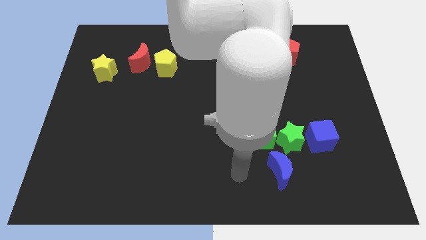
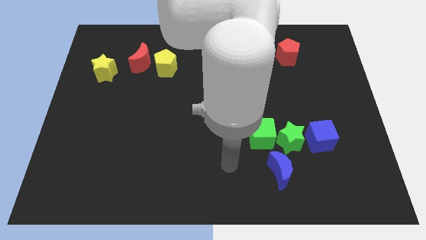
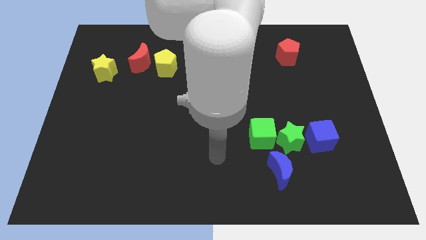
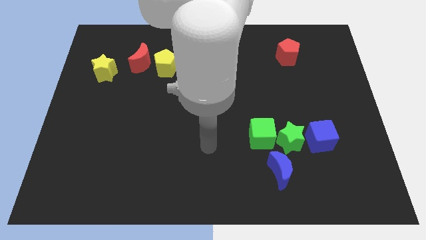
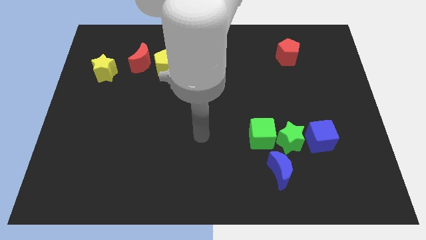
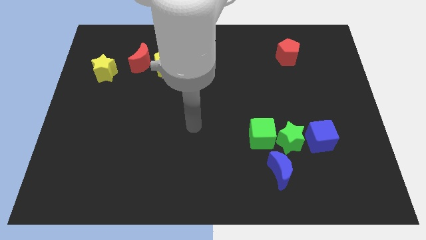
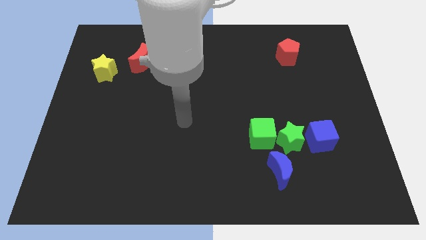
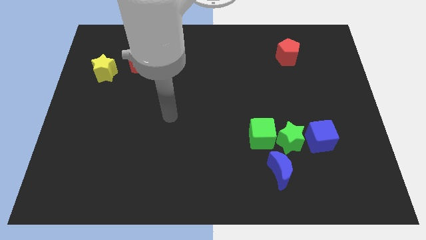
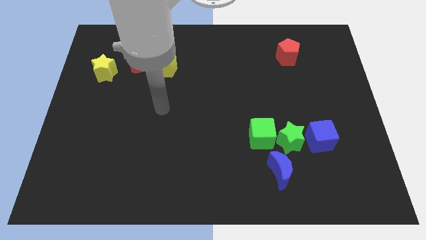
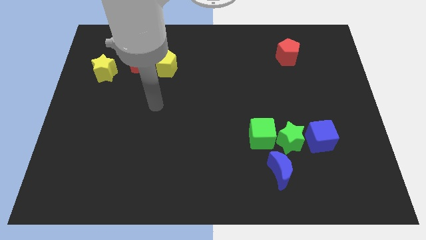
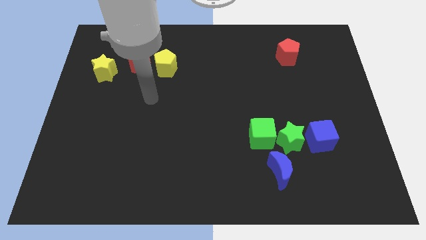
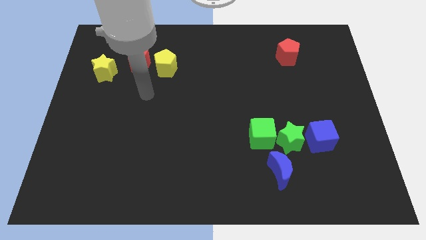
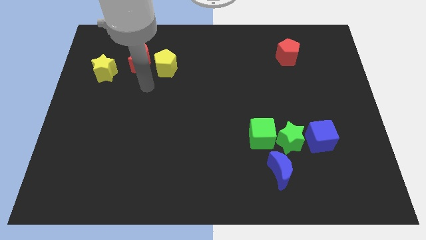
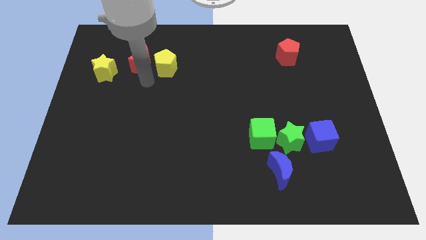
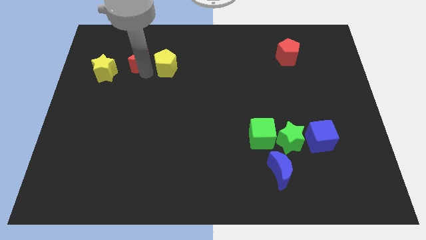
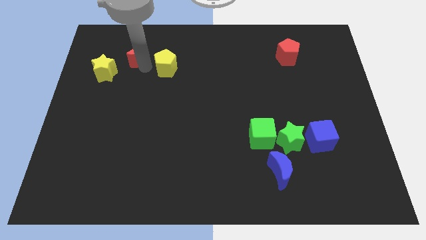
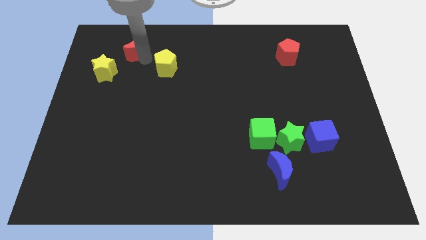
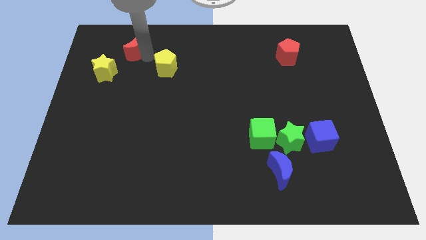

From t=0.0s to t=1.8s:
move the yellow pentagon away from the red moon

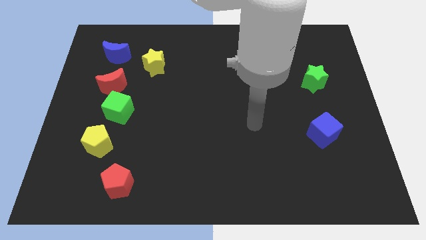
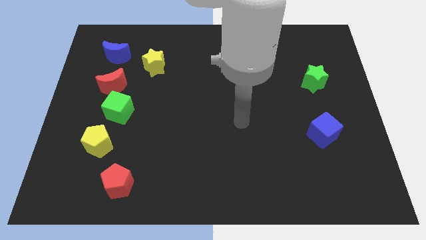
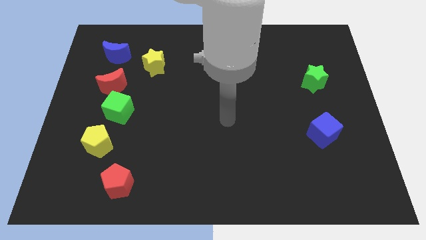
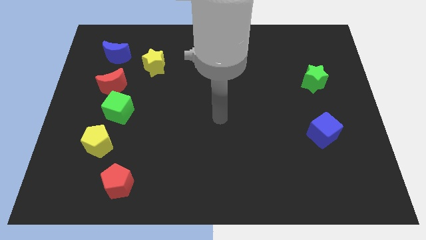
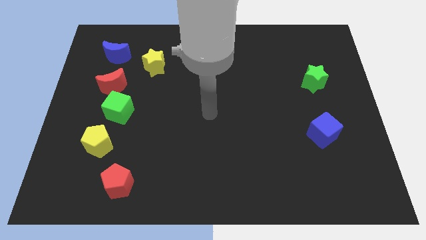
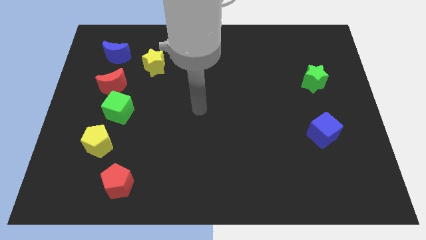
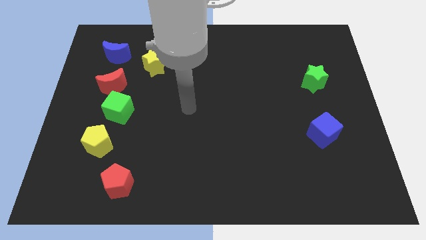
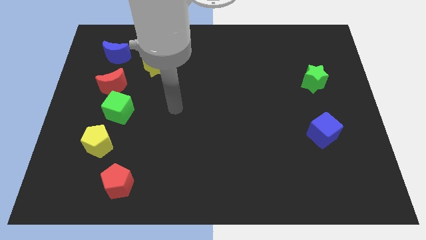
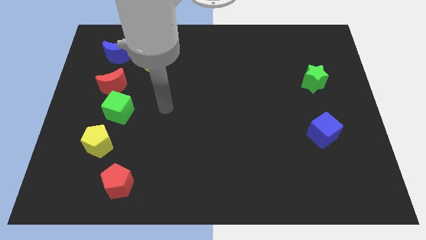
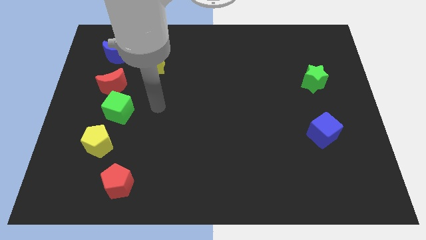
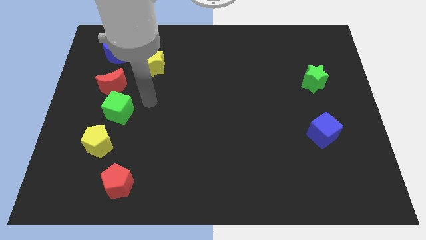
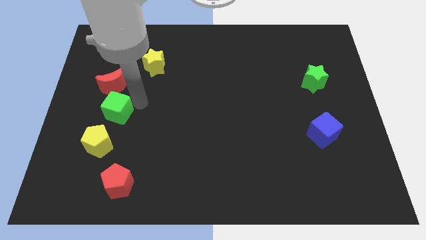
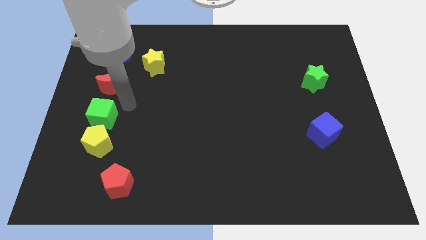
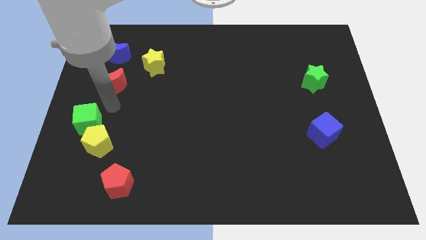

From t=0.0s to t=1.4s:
move the red moon away from the green cube

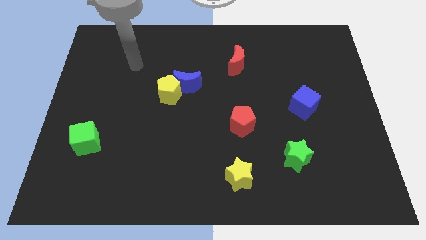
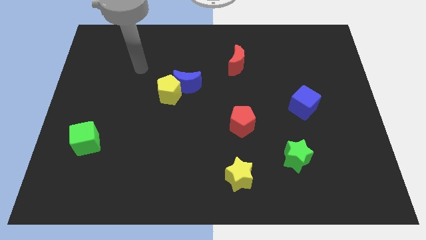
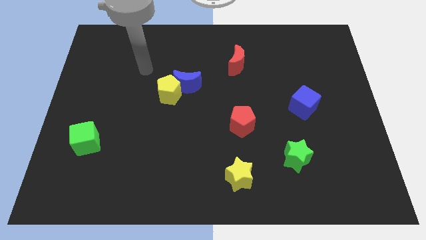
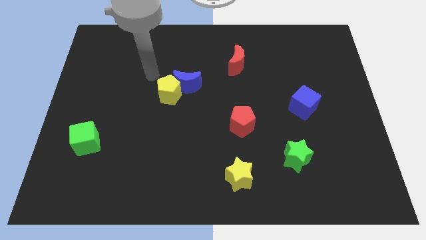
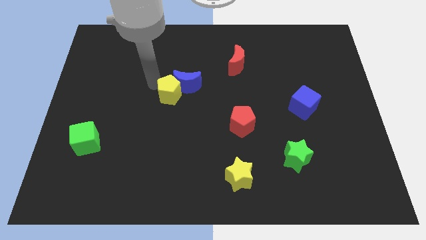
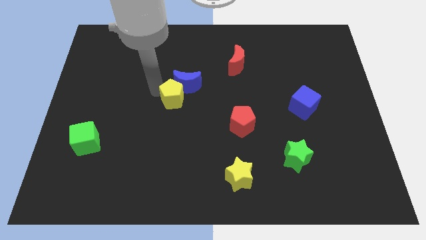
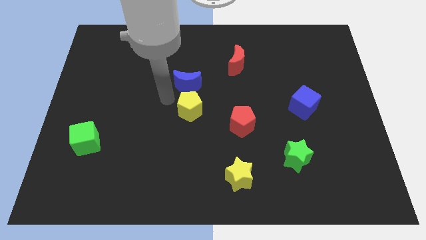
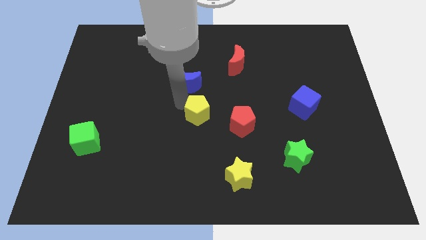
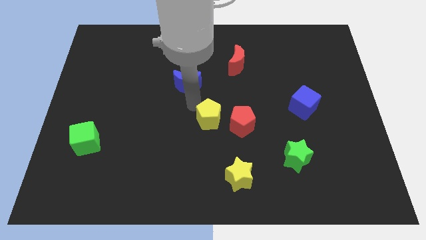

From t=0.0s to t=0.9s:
pull the blue moon apart from the yellow pentagon

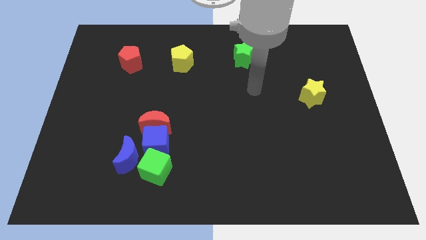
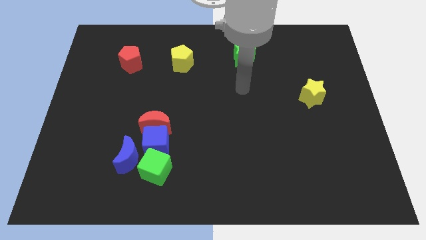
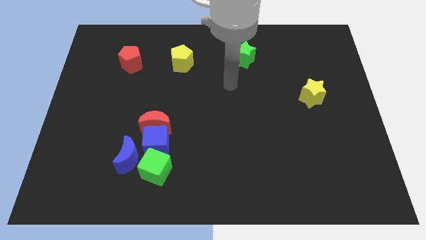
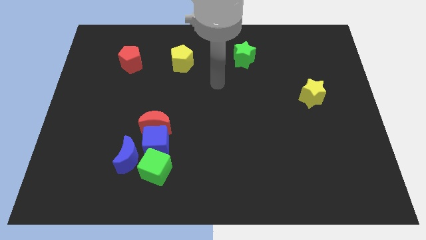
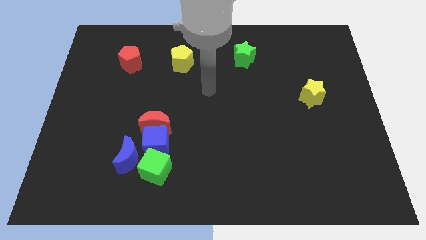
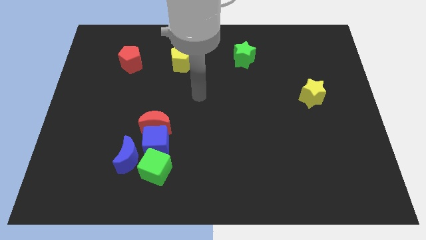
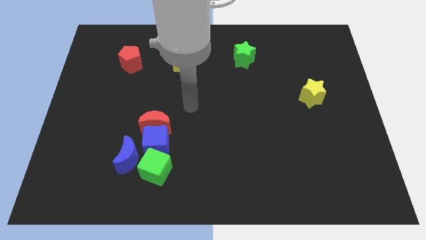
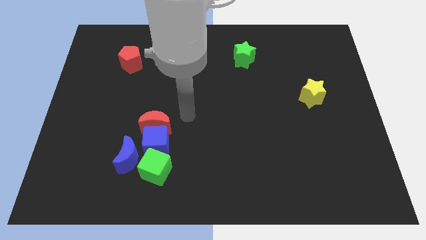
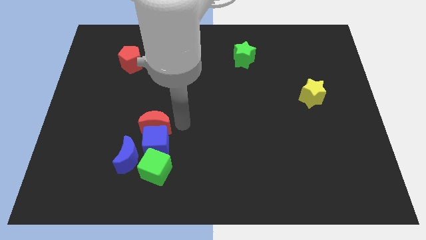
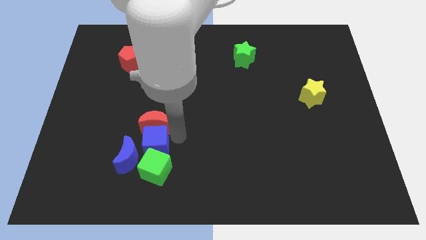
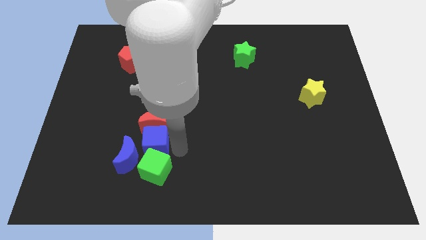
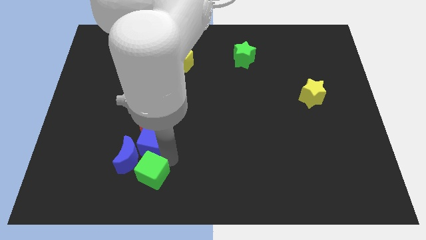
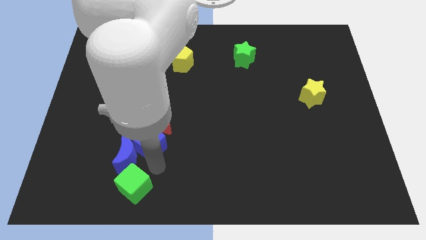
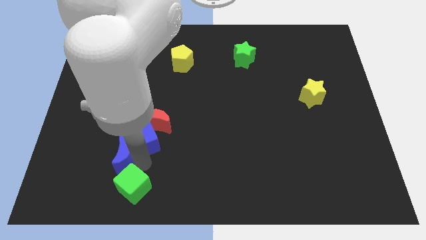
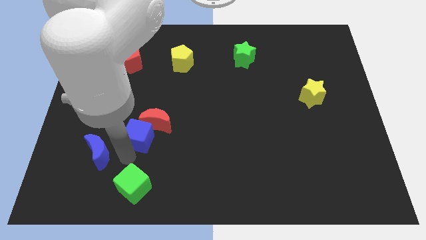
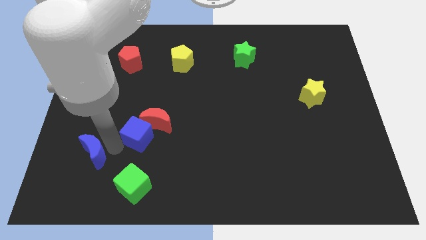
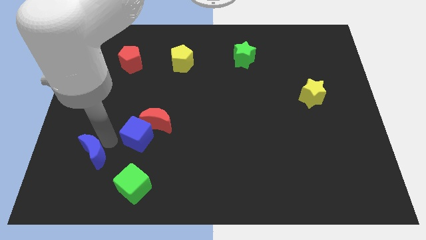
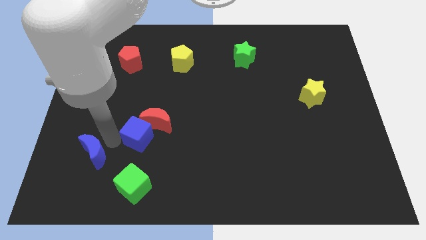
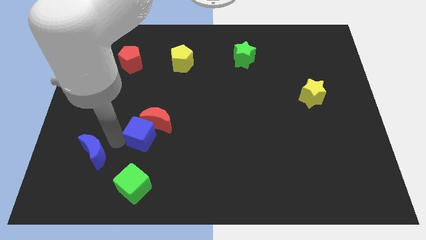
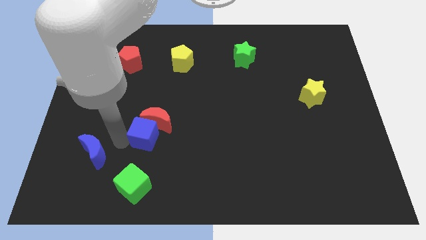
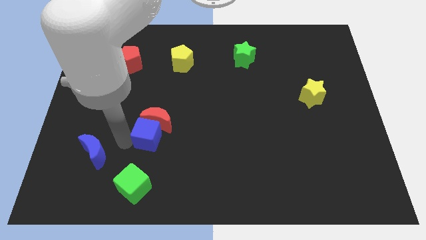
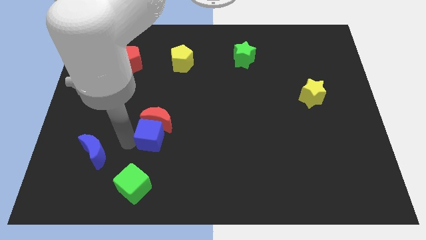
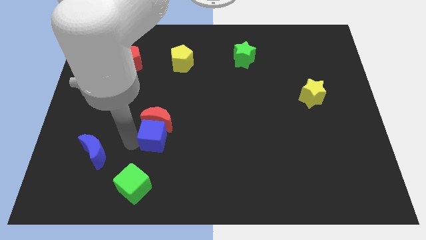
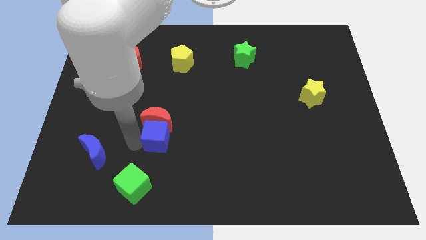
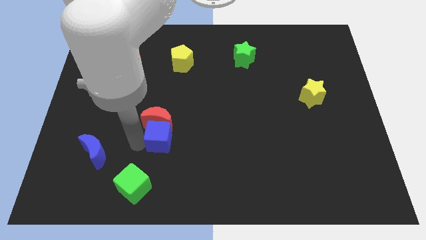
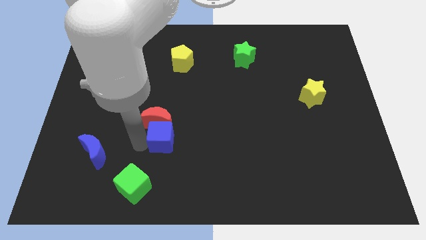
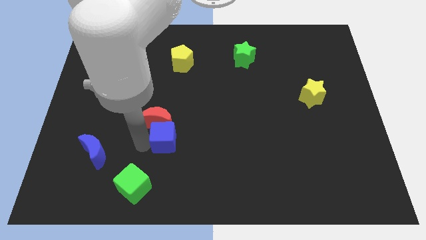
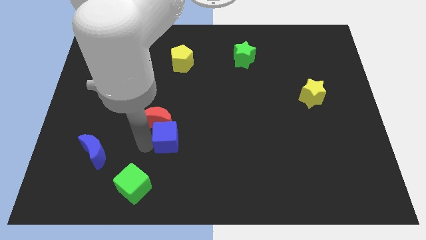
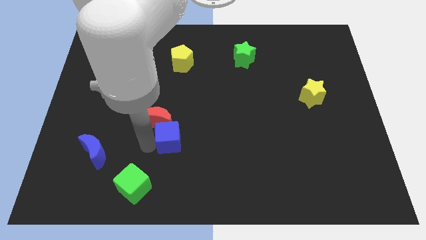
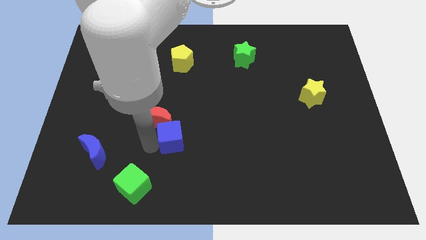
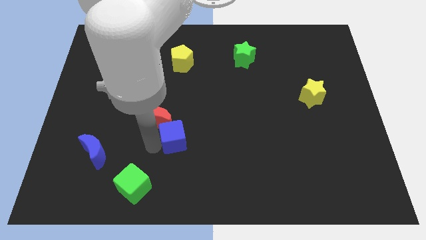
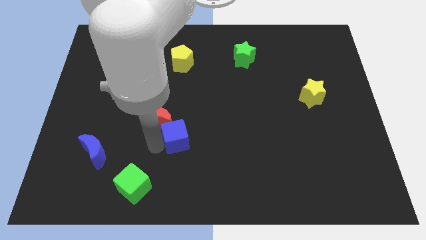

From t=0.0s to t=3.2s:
move the blue cube away from the red moon, green cube, and blue moon

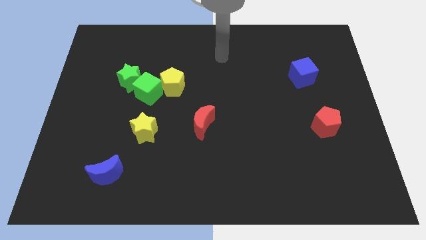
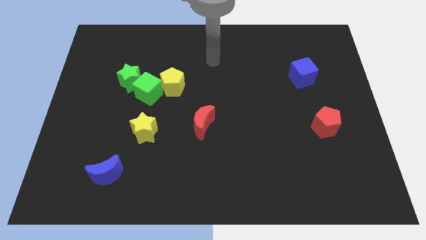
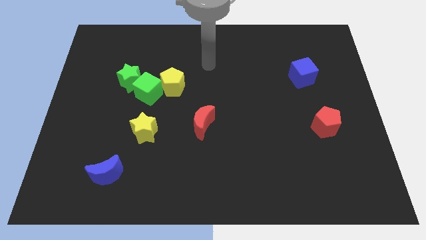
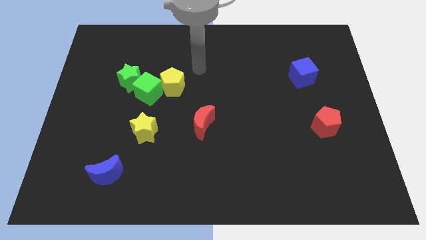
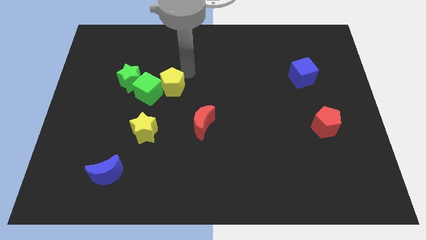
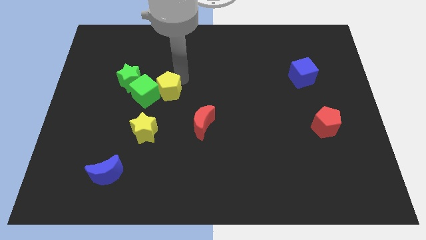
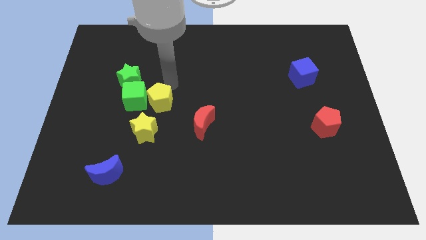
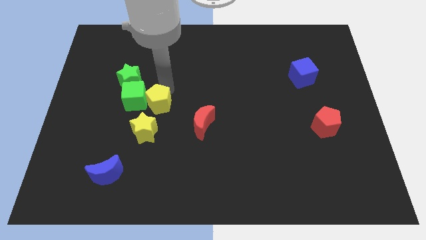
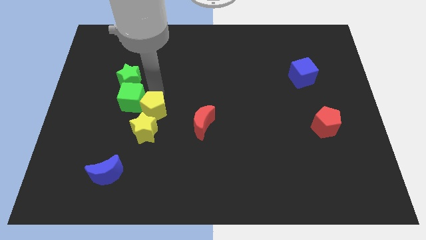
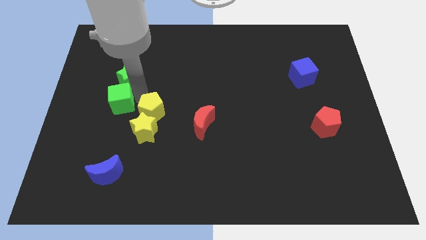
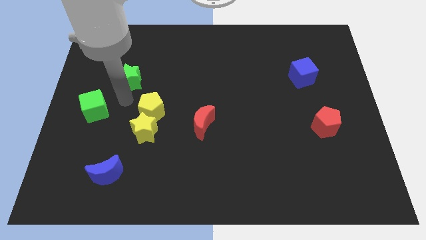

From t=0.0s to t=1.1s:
move the green star away from the green cube

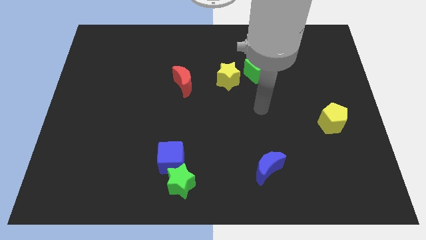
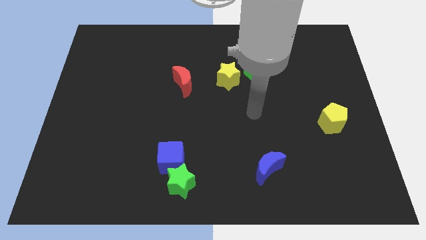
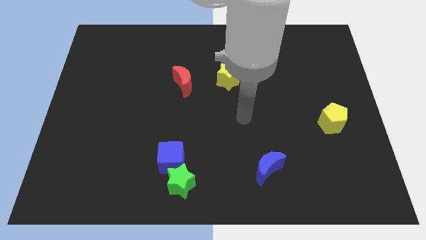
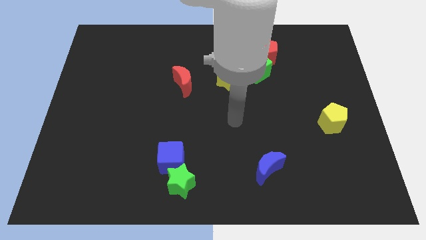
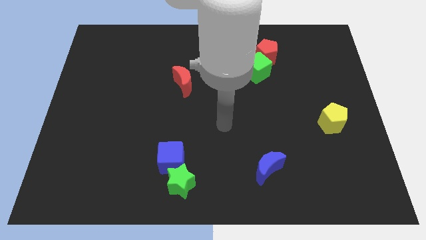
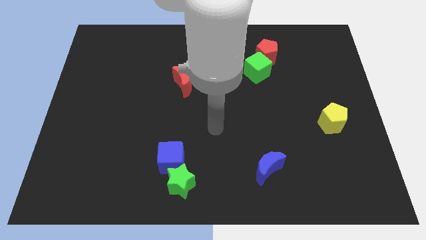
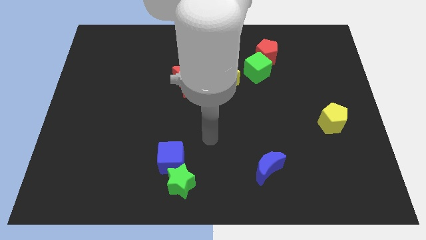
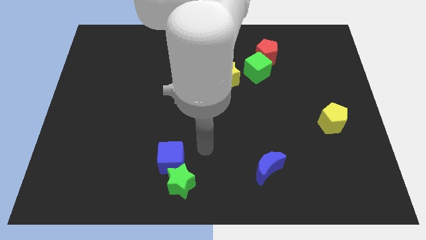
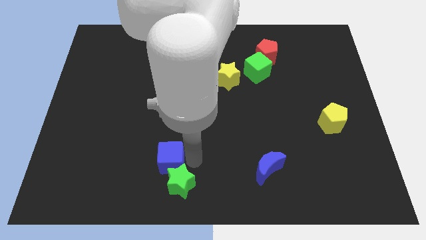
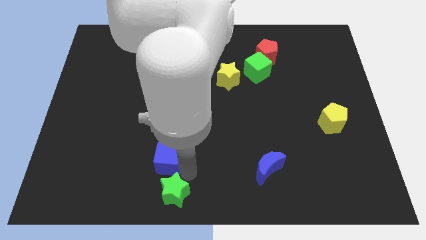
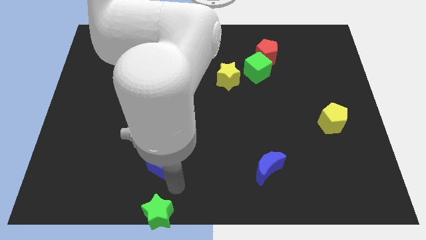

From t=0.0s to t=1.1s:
move the blue cube away from the green star
